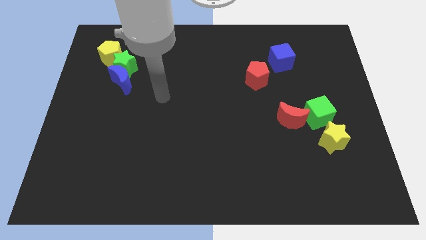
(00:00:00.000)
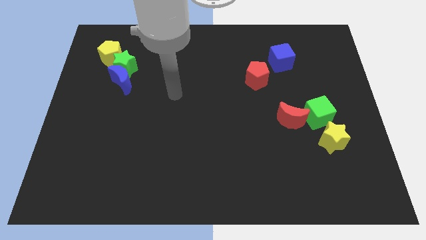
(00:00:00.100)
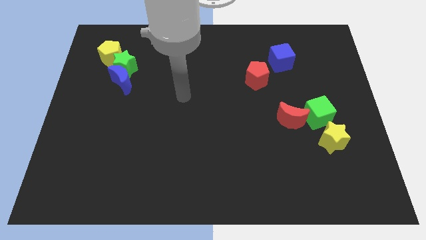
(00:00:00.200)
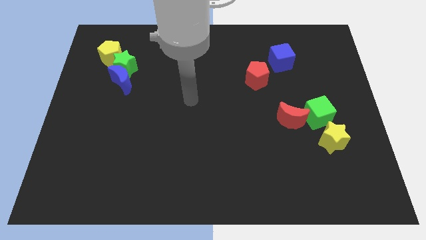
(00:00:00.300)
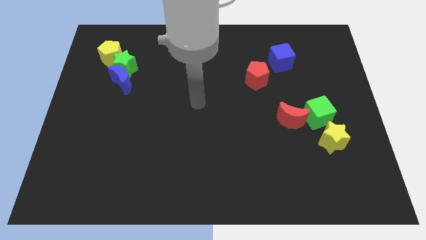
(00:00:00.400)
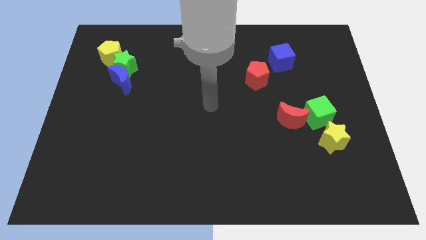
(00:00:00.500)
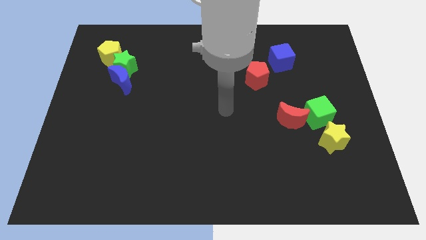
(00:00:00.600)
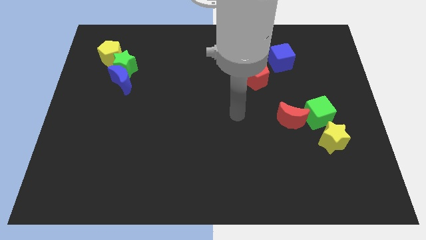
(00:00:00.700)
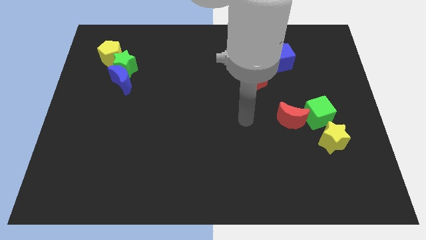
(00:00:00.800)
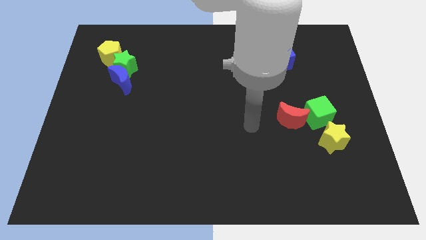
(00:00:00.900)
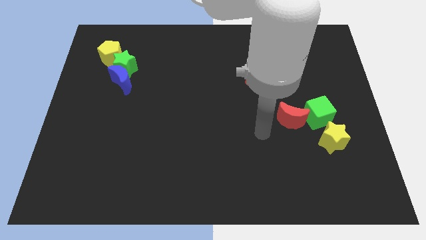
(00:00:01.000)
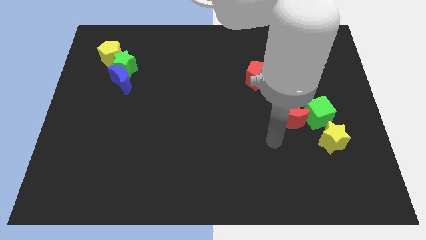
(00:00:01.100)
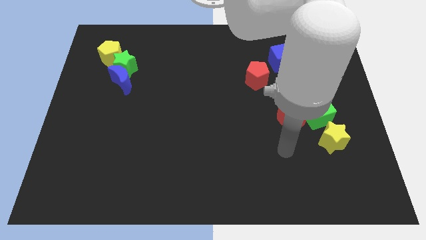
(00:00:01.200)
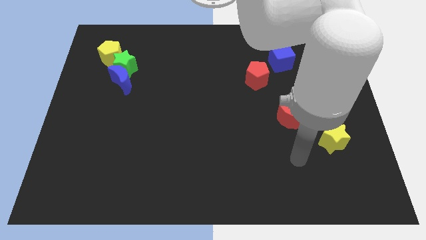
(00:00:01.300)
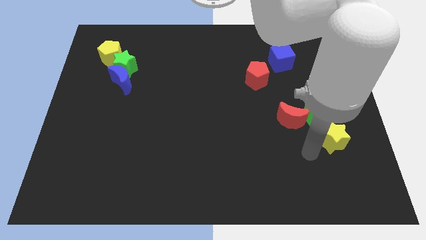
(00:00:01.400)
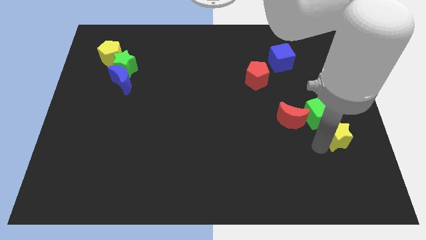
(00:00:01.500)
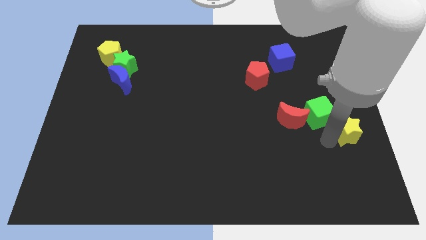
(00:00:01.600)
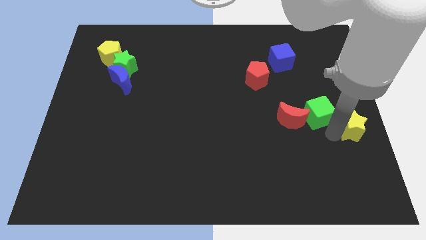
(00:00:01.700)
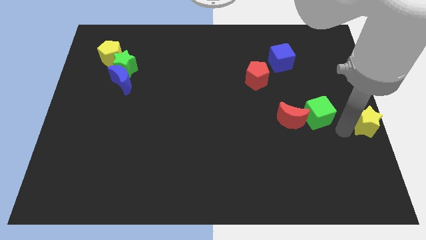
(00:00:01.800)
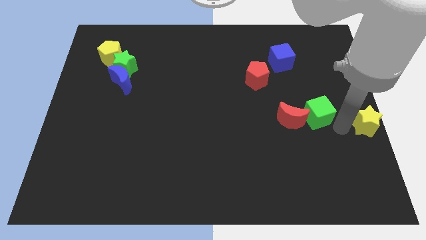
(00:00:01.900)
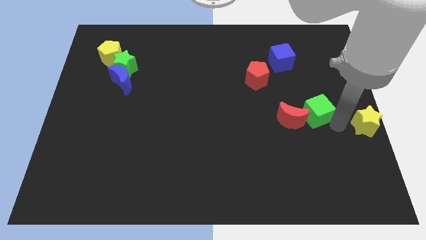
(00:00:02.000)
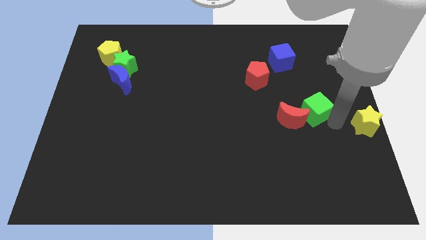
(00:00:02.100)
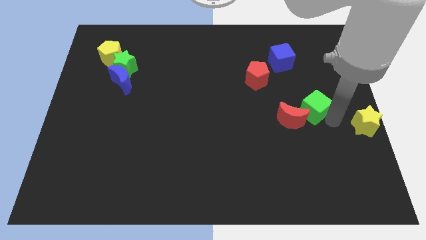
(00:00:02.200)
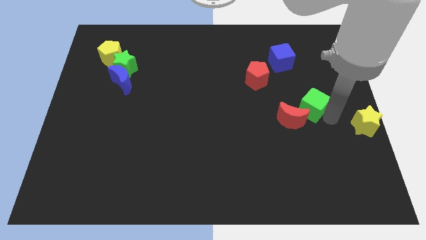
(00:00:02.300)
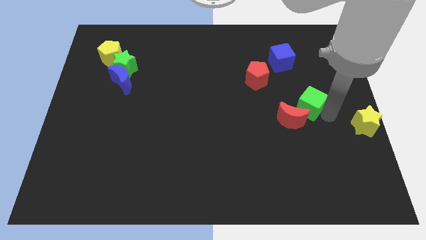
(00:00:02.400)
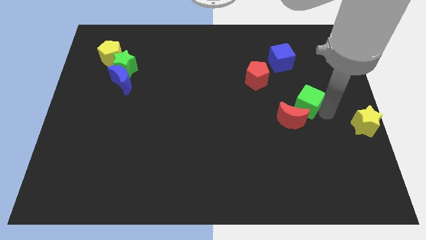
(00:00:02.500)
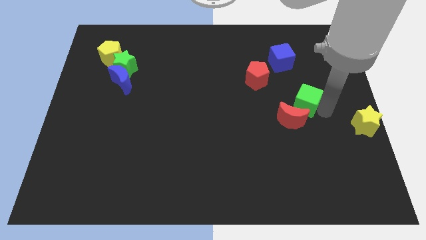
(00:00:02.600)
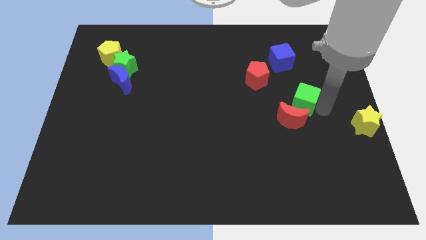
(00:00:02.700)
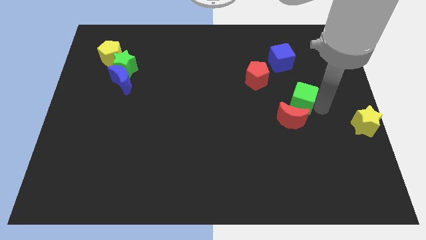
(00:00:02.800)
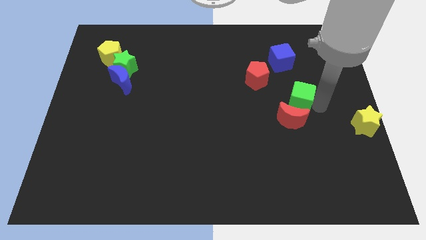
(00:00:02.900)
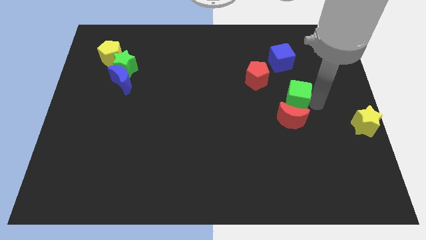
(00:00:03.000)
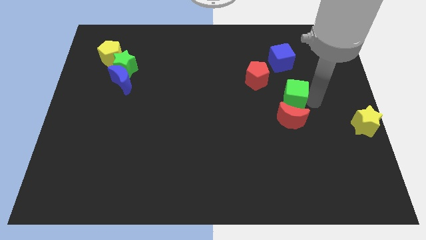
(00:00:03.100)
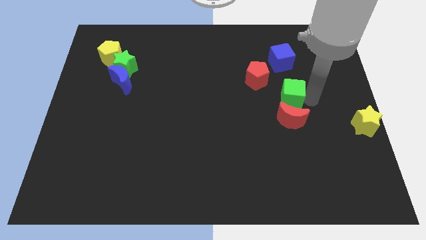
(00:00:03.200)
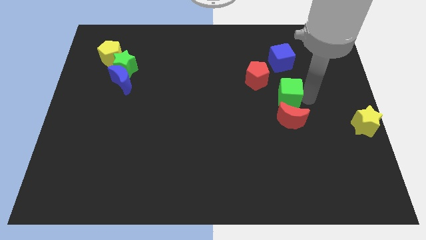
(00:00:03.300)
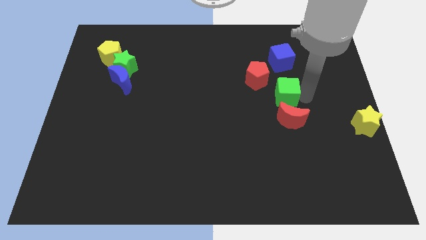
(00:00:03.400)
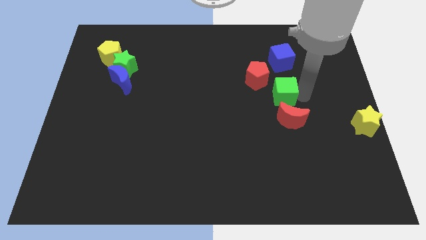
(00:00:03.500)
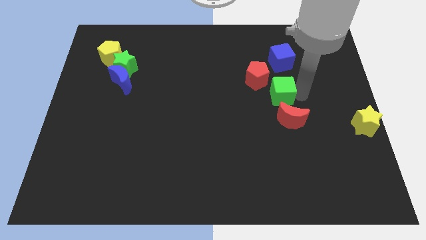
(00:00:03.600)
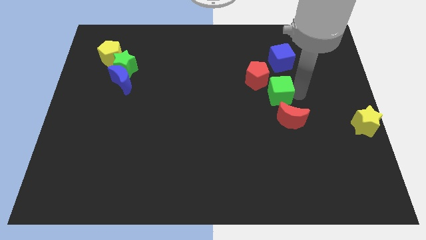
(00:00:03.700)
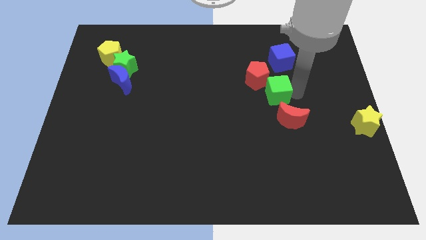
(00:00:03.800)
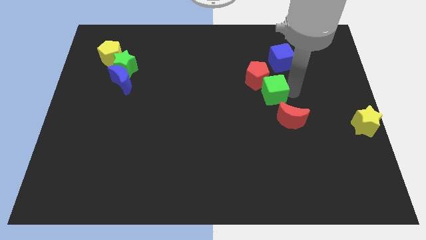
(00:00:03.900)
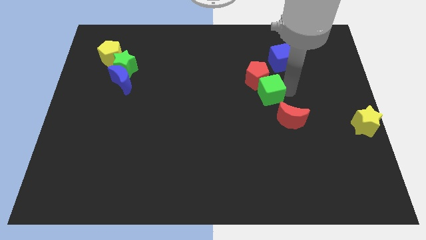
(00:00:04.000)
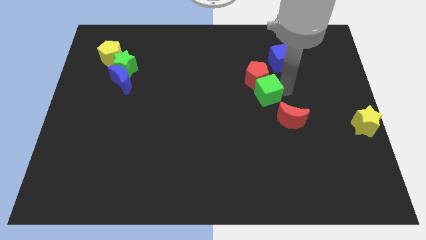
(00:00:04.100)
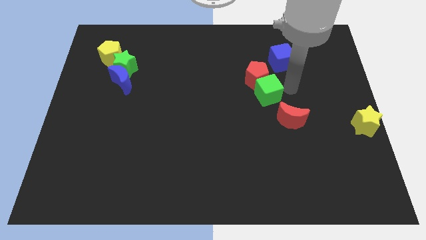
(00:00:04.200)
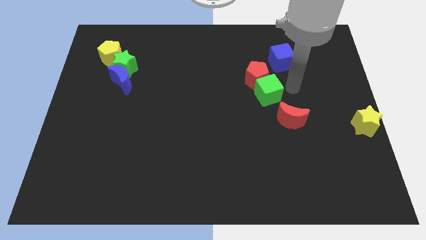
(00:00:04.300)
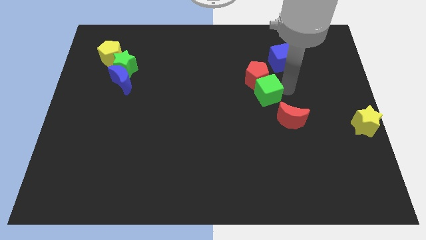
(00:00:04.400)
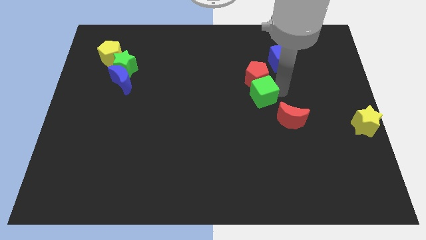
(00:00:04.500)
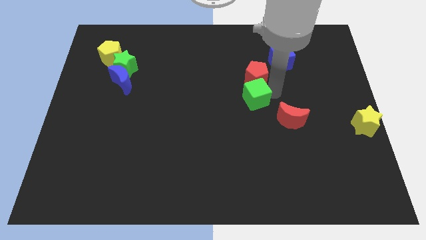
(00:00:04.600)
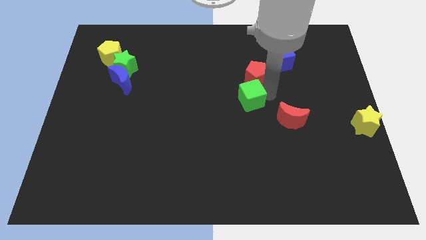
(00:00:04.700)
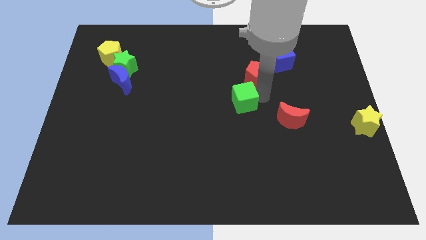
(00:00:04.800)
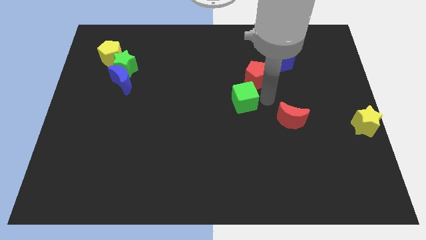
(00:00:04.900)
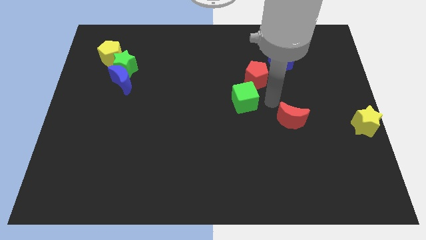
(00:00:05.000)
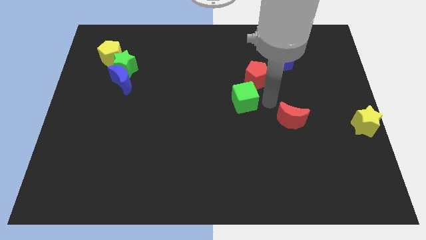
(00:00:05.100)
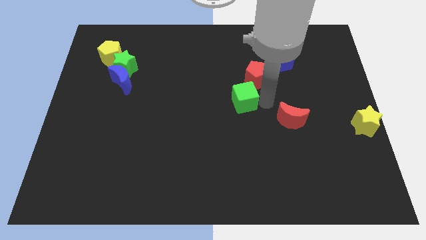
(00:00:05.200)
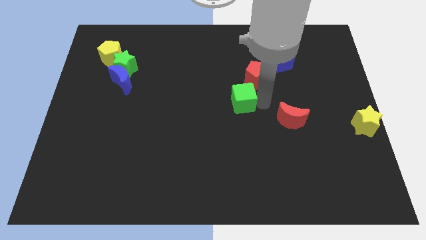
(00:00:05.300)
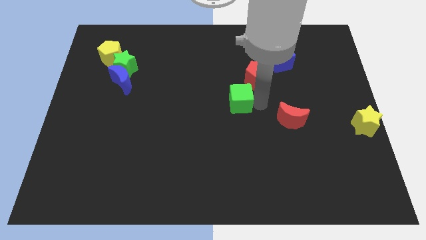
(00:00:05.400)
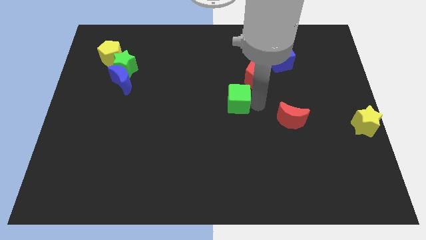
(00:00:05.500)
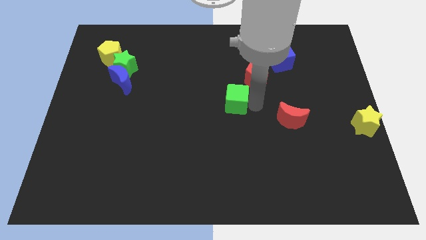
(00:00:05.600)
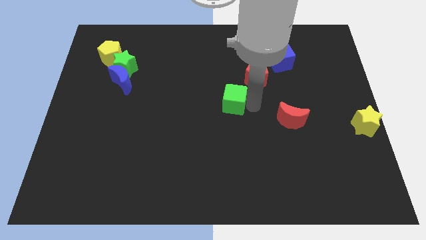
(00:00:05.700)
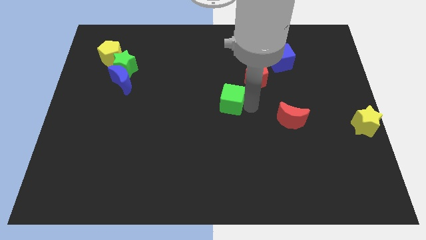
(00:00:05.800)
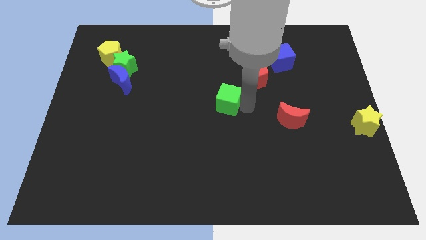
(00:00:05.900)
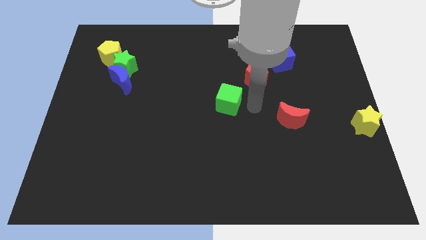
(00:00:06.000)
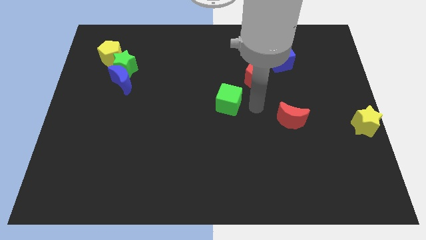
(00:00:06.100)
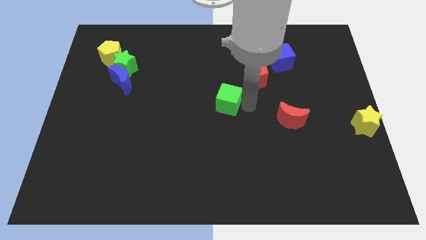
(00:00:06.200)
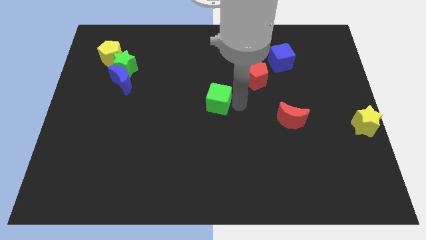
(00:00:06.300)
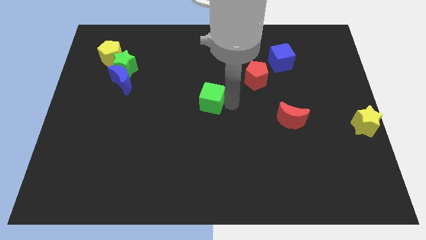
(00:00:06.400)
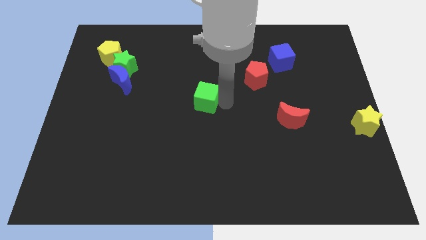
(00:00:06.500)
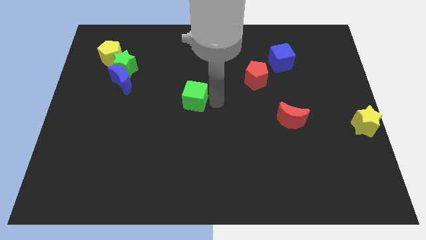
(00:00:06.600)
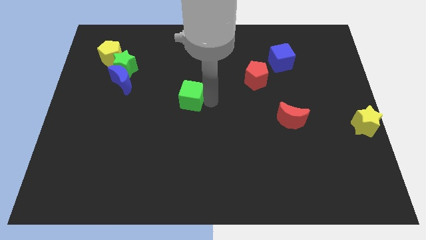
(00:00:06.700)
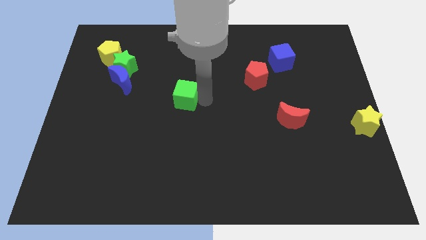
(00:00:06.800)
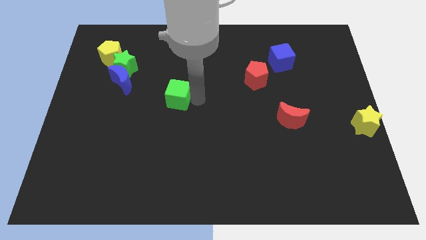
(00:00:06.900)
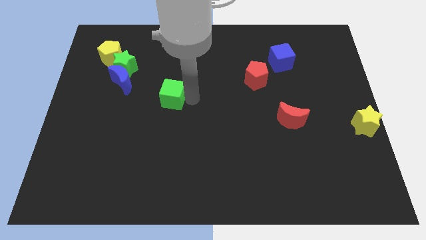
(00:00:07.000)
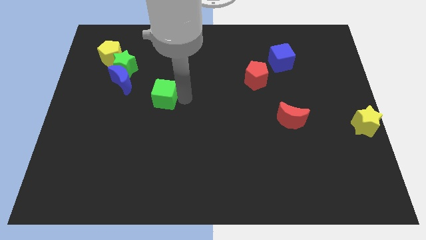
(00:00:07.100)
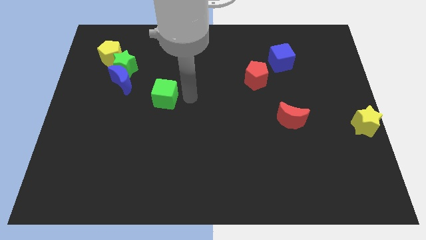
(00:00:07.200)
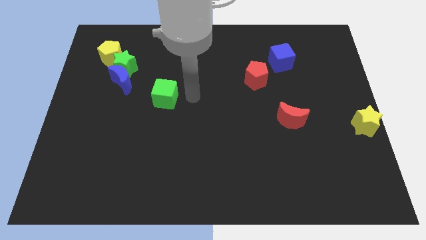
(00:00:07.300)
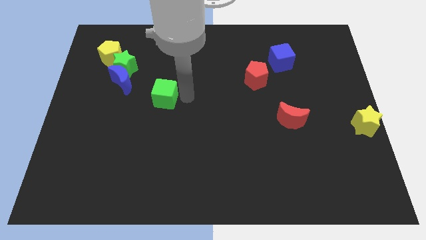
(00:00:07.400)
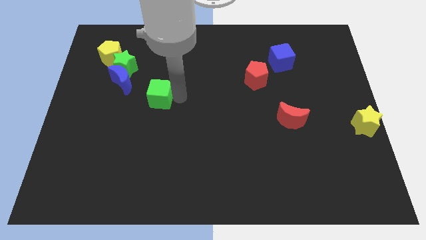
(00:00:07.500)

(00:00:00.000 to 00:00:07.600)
put the green cube to the bottom right side of the blue moon

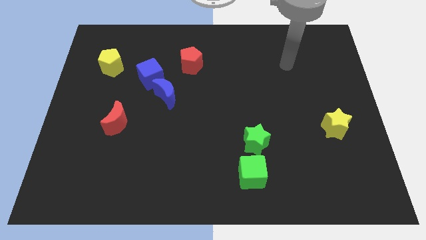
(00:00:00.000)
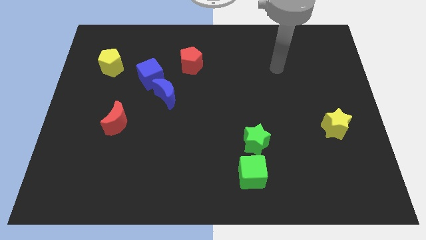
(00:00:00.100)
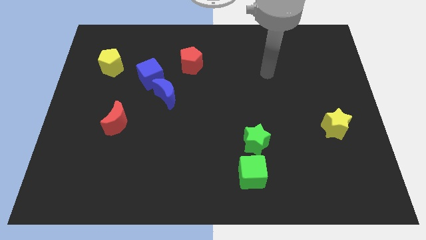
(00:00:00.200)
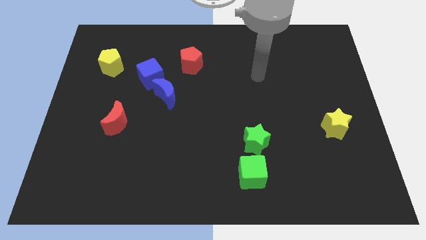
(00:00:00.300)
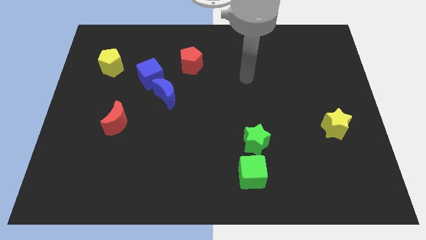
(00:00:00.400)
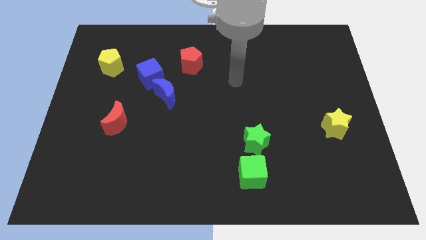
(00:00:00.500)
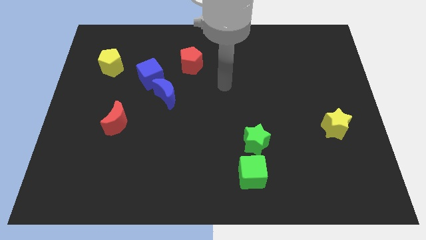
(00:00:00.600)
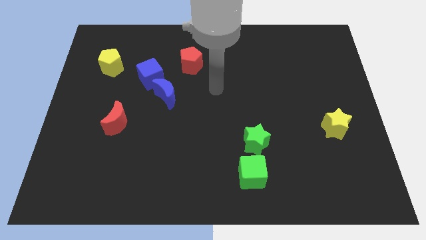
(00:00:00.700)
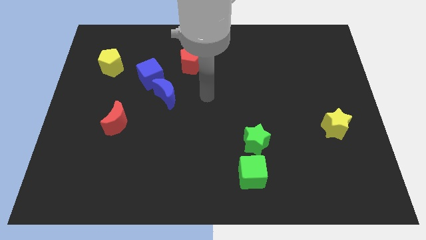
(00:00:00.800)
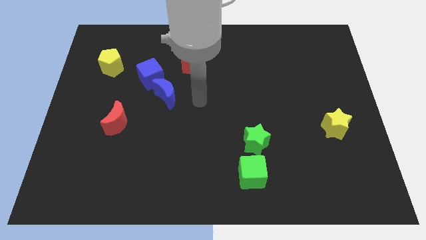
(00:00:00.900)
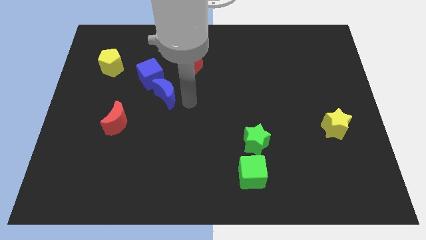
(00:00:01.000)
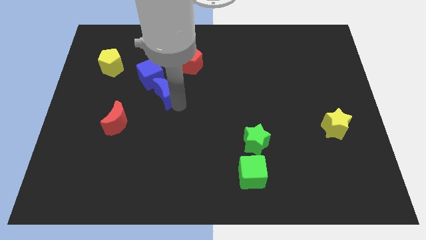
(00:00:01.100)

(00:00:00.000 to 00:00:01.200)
put the red moon to the bottom left side of the blue moon
